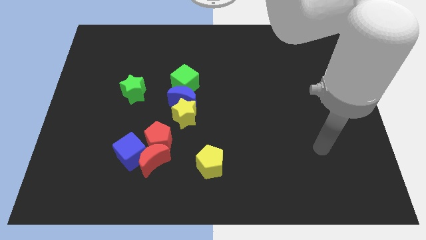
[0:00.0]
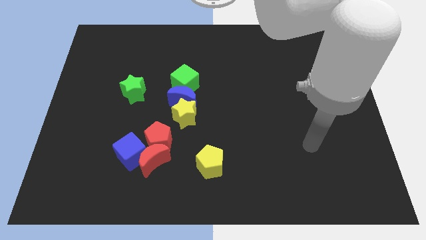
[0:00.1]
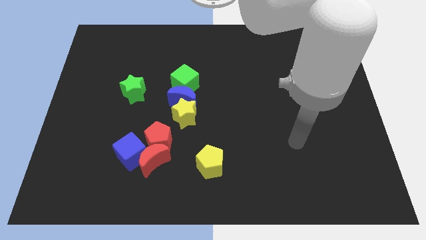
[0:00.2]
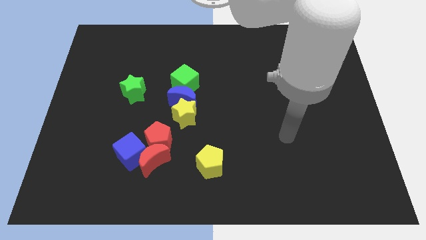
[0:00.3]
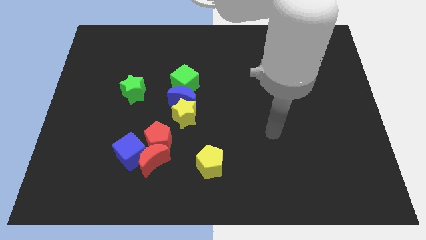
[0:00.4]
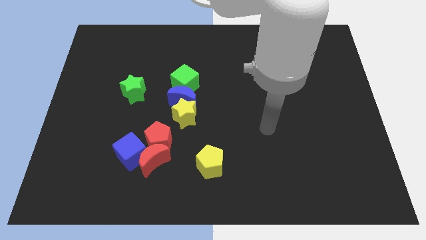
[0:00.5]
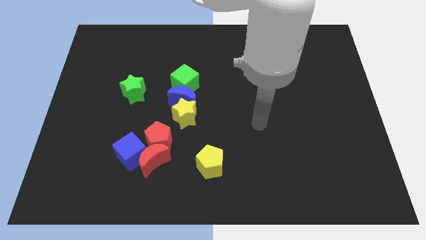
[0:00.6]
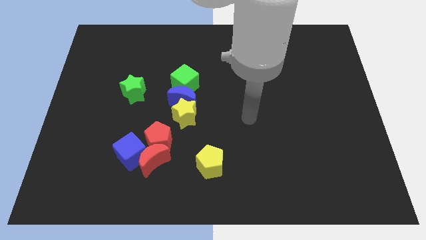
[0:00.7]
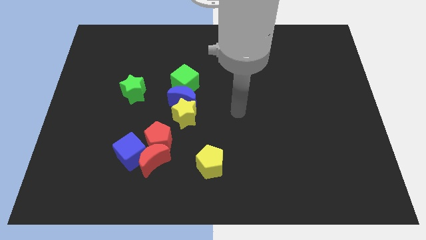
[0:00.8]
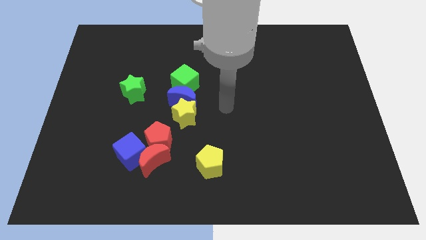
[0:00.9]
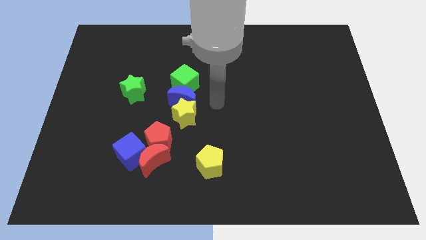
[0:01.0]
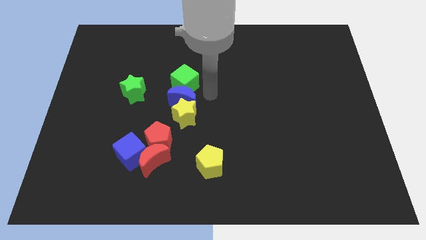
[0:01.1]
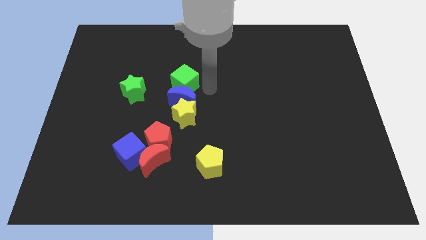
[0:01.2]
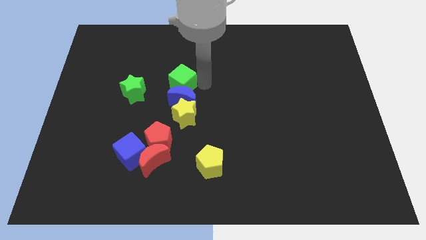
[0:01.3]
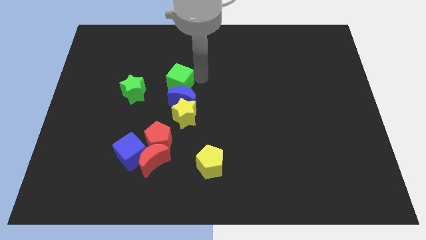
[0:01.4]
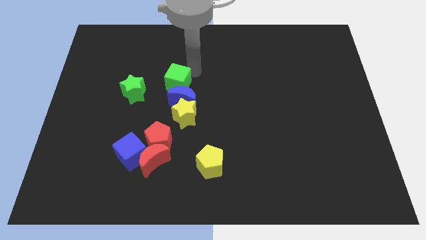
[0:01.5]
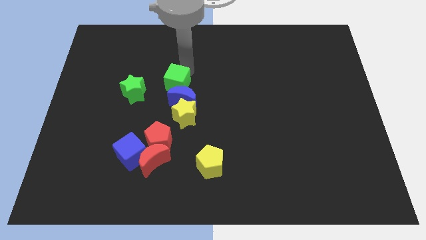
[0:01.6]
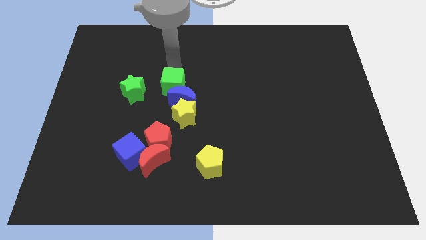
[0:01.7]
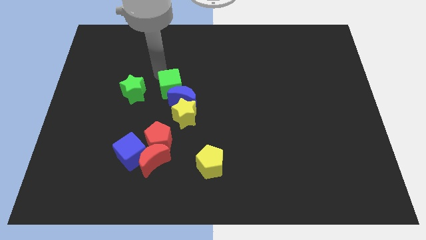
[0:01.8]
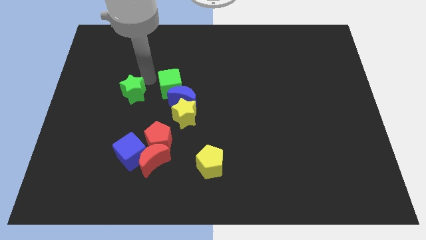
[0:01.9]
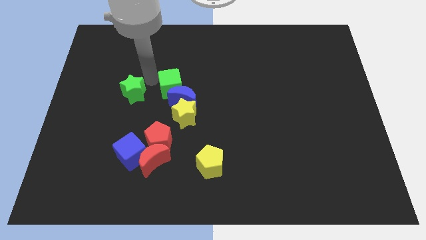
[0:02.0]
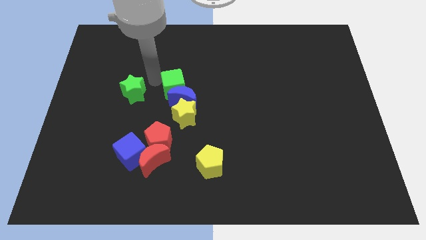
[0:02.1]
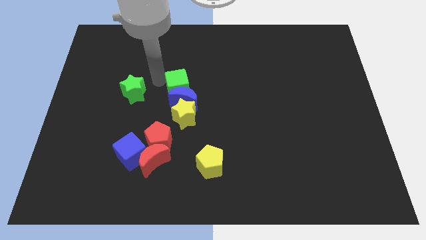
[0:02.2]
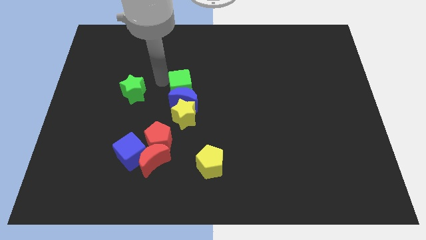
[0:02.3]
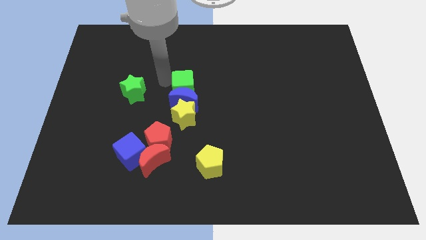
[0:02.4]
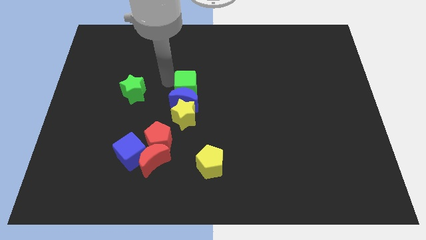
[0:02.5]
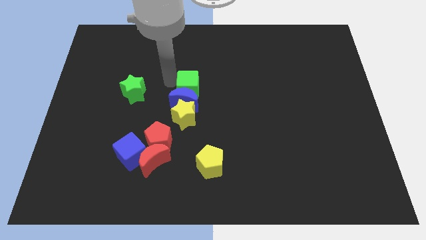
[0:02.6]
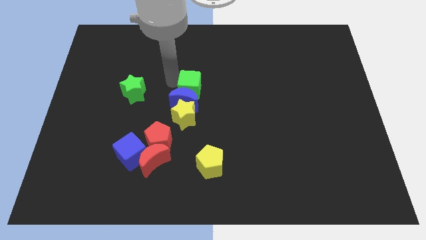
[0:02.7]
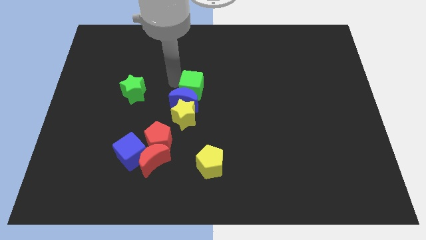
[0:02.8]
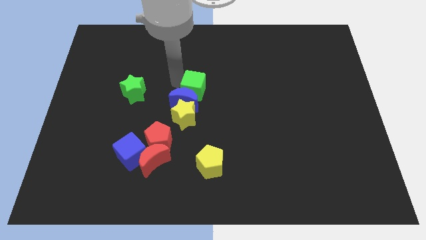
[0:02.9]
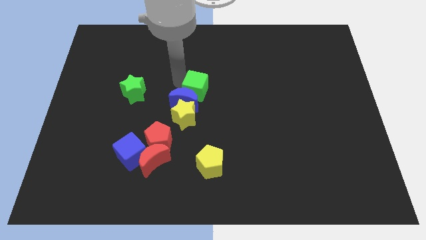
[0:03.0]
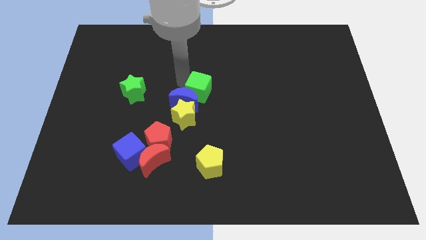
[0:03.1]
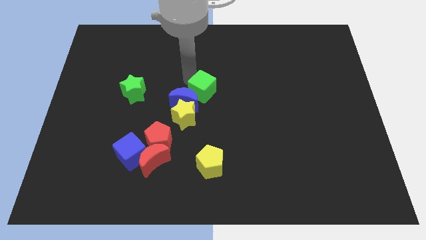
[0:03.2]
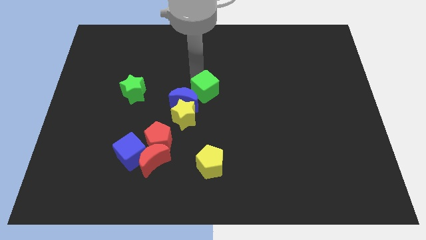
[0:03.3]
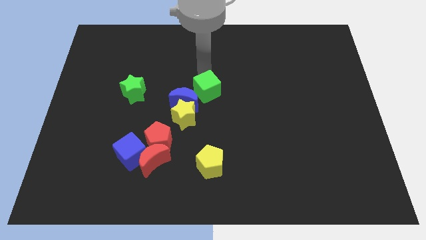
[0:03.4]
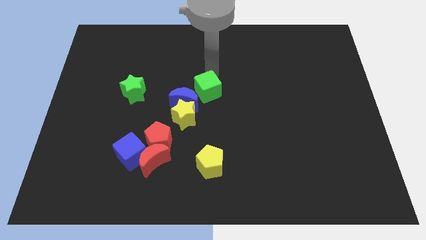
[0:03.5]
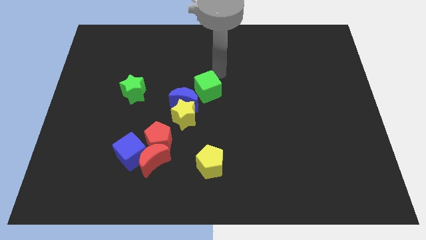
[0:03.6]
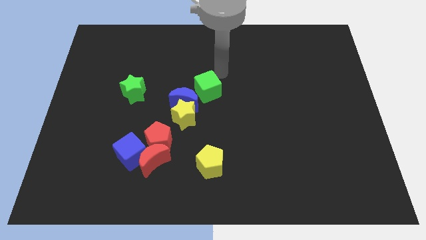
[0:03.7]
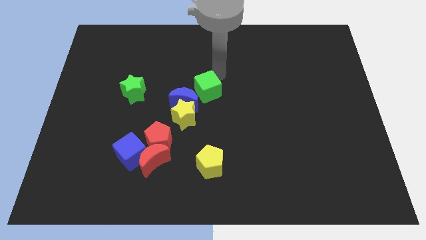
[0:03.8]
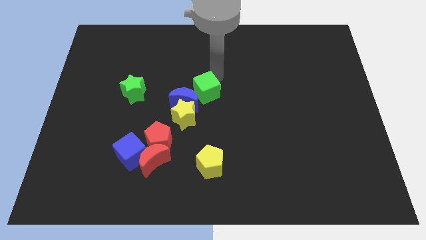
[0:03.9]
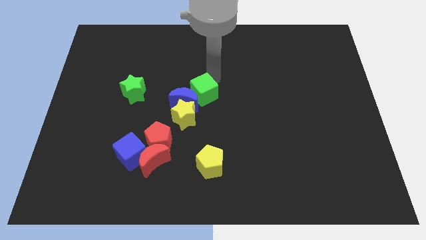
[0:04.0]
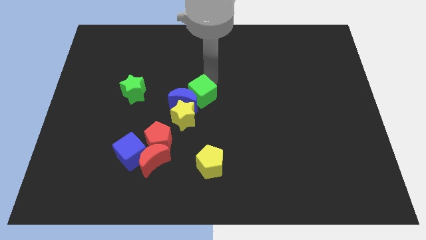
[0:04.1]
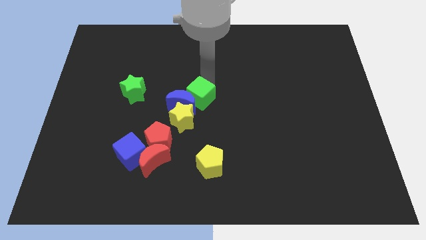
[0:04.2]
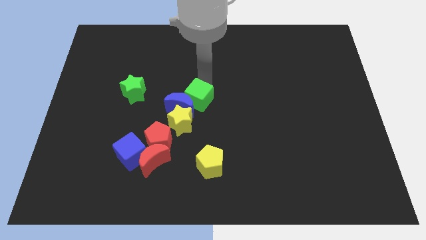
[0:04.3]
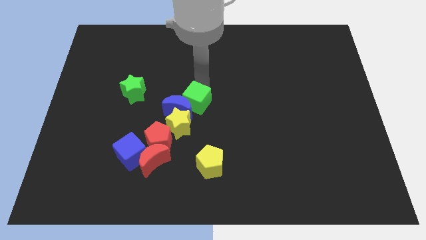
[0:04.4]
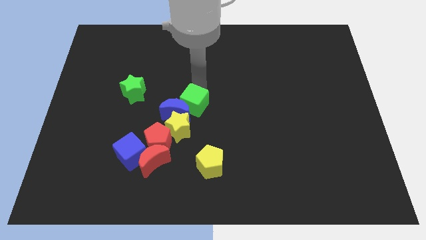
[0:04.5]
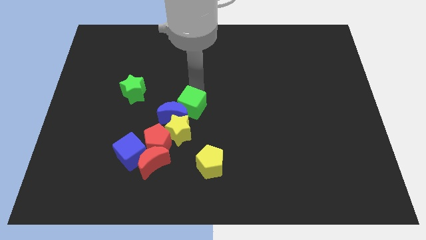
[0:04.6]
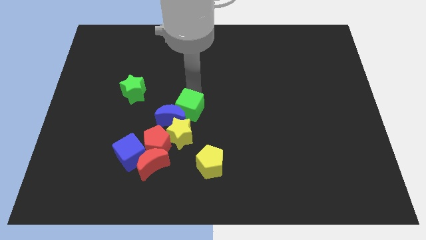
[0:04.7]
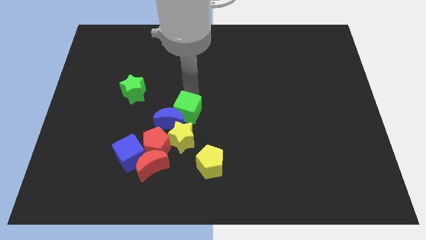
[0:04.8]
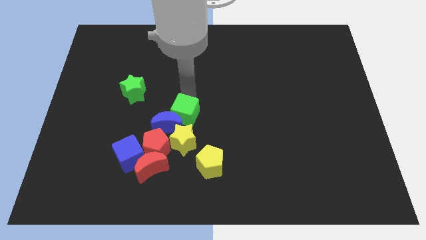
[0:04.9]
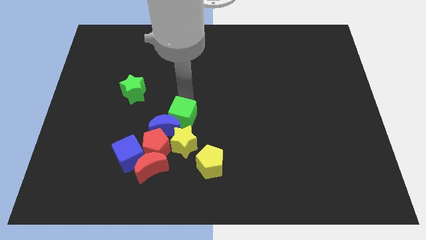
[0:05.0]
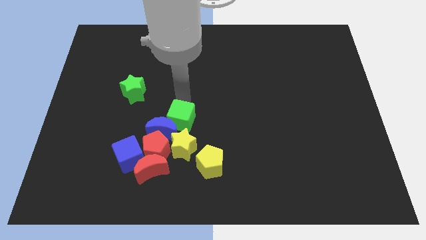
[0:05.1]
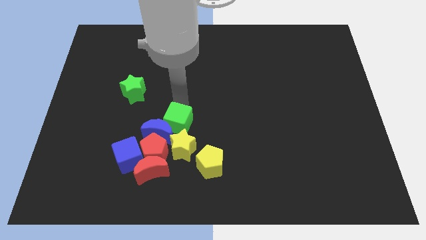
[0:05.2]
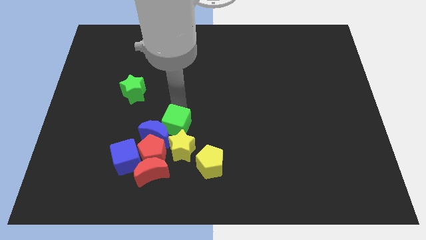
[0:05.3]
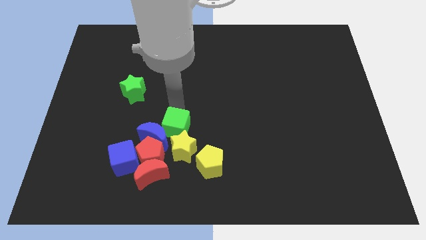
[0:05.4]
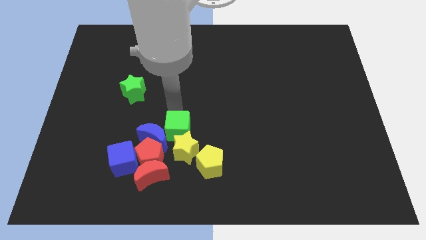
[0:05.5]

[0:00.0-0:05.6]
put the green cube to the yellow star

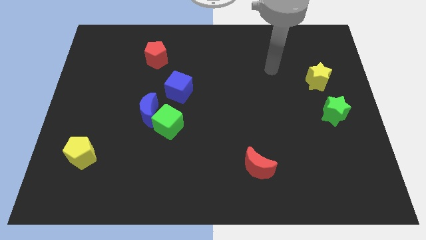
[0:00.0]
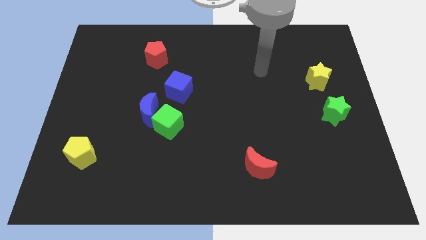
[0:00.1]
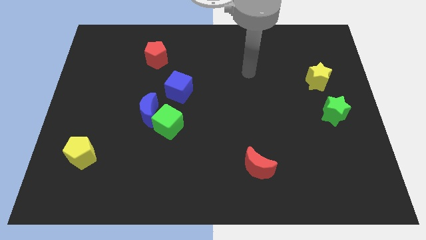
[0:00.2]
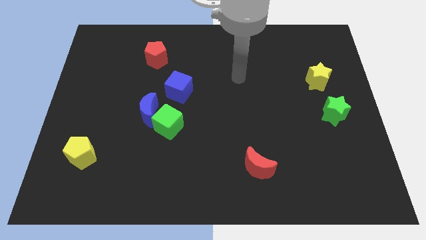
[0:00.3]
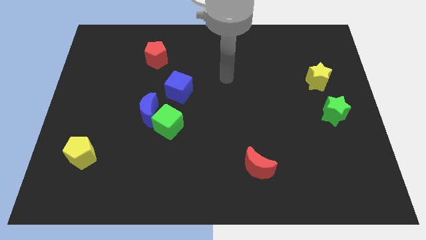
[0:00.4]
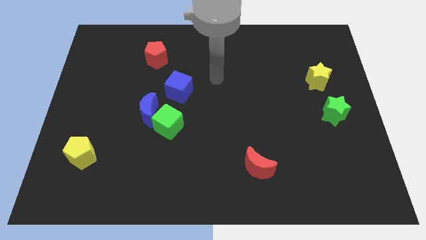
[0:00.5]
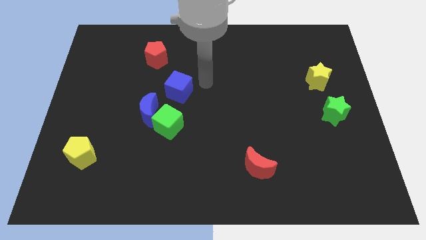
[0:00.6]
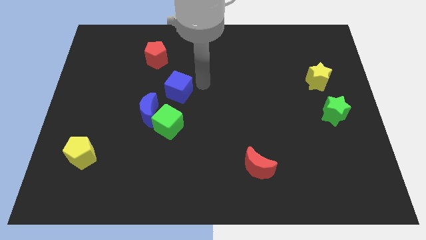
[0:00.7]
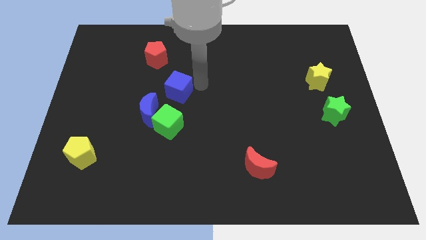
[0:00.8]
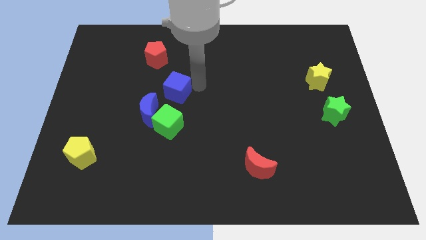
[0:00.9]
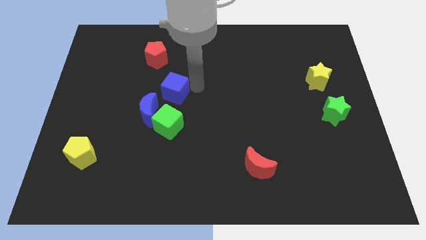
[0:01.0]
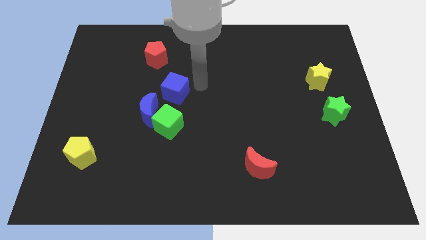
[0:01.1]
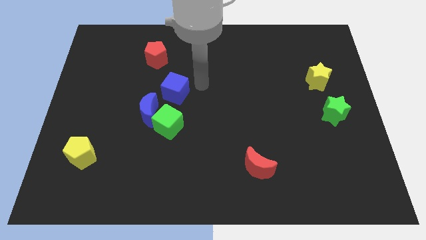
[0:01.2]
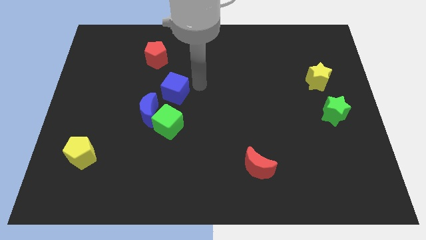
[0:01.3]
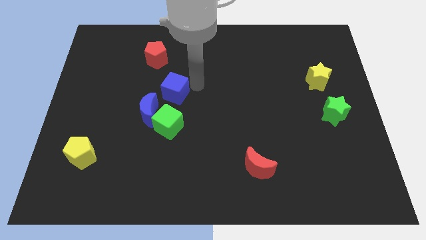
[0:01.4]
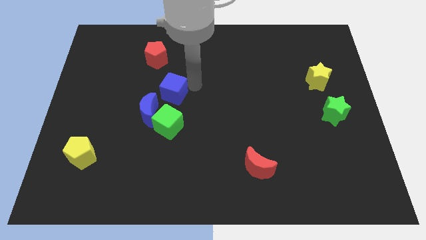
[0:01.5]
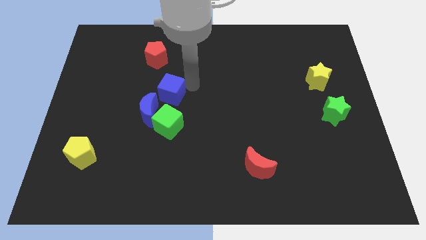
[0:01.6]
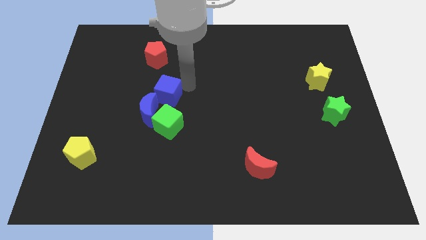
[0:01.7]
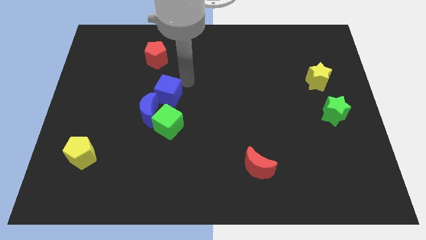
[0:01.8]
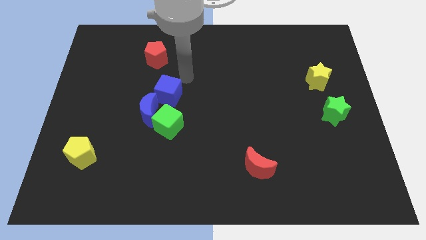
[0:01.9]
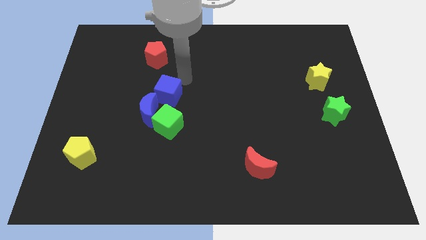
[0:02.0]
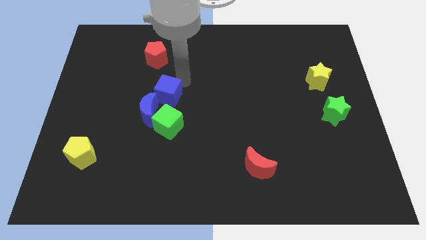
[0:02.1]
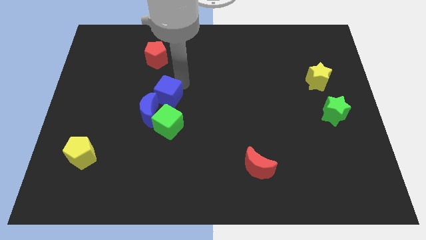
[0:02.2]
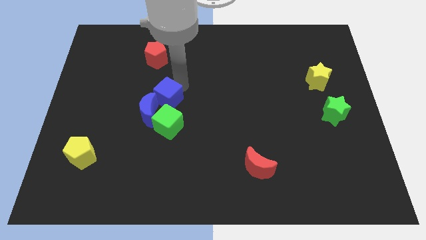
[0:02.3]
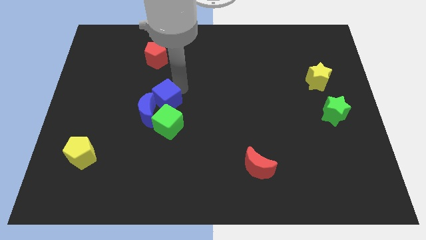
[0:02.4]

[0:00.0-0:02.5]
slide the blue cube to the blue moon
